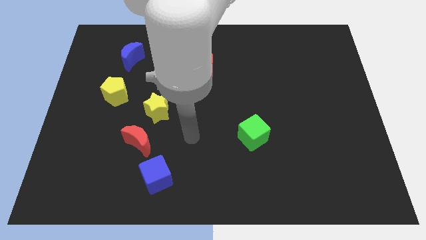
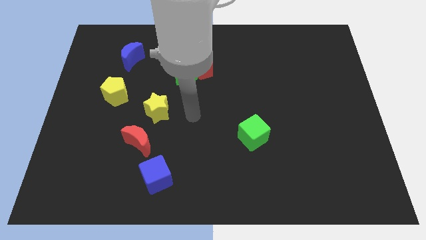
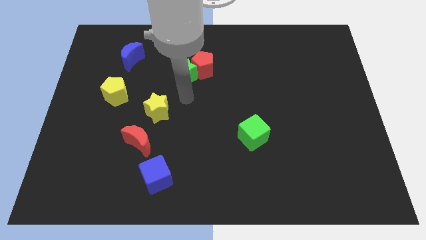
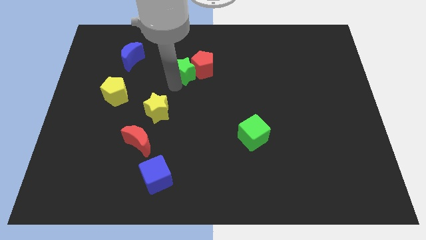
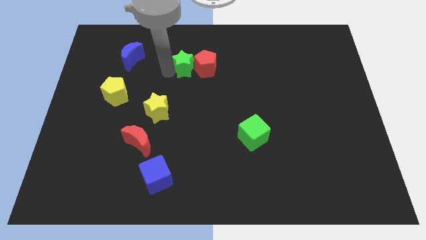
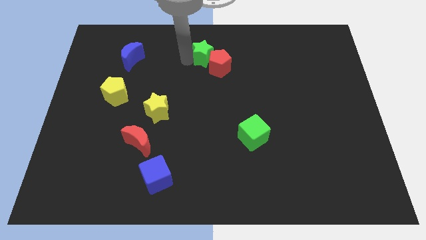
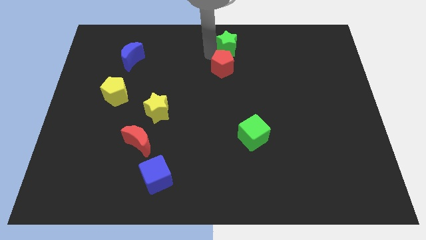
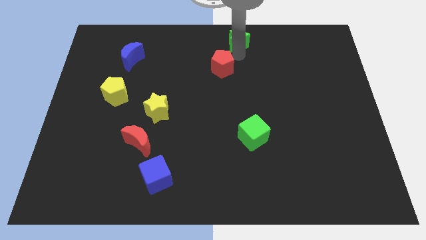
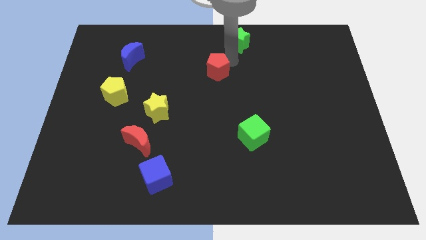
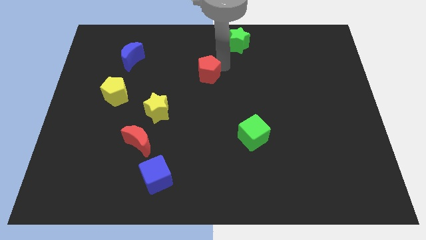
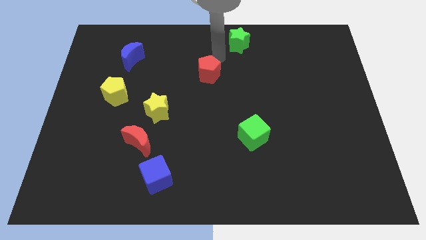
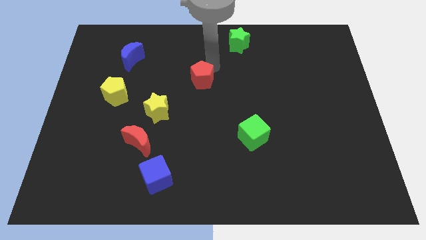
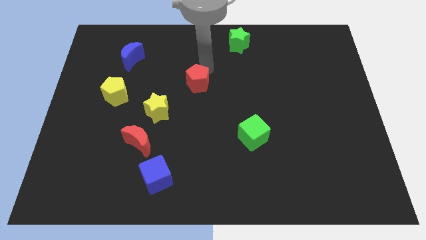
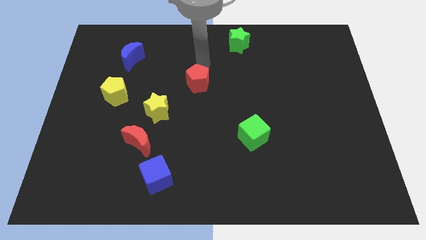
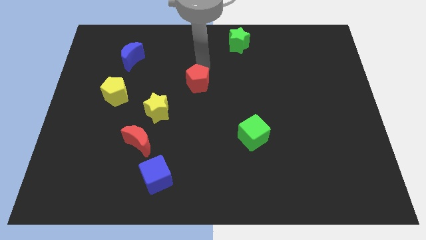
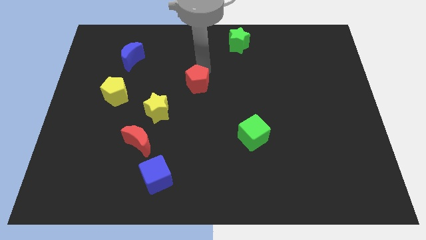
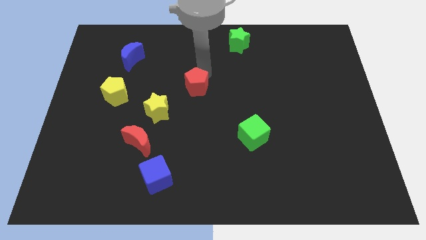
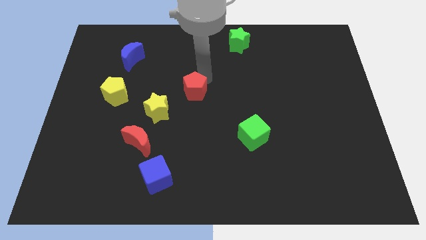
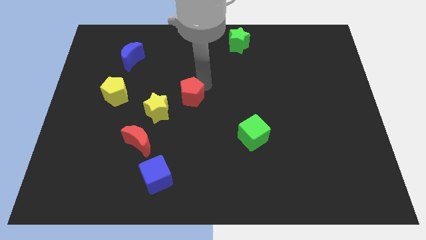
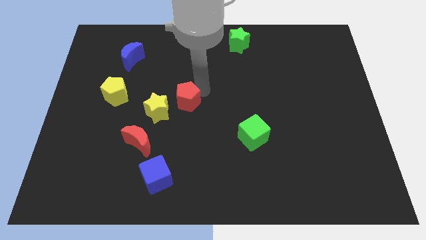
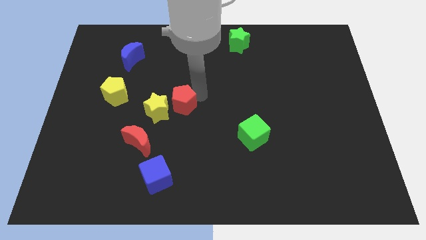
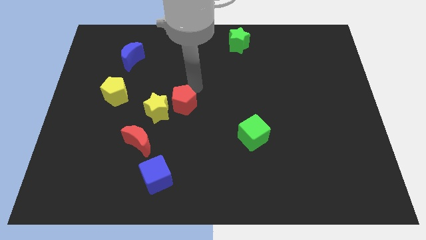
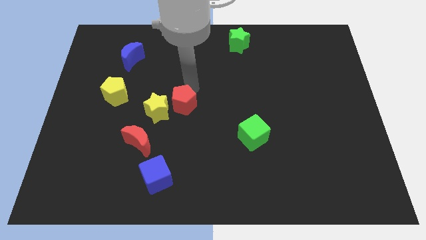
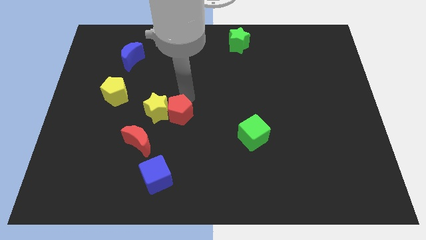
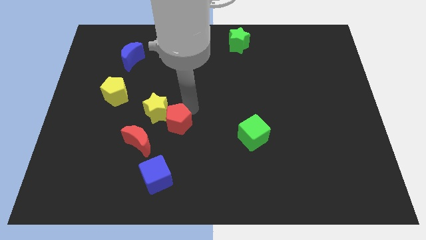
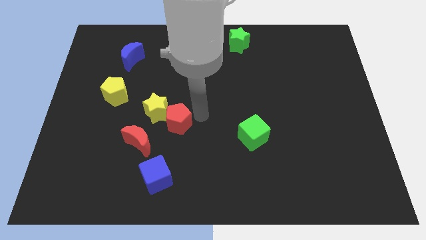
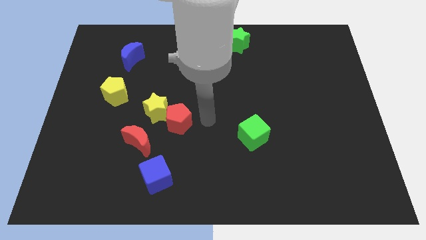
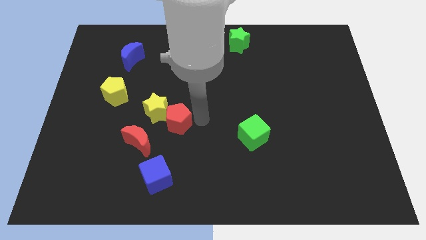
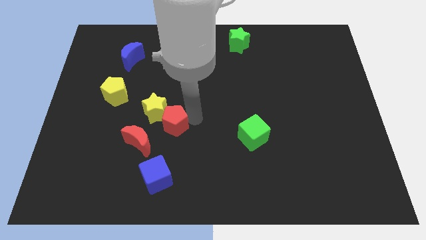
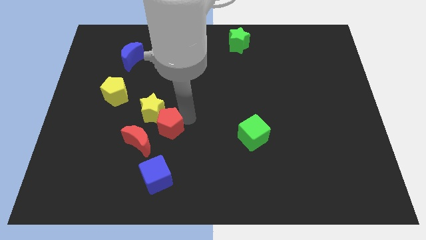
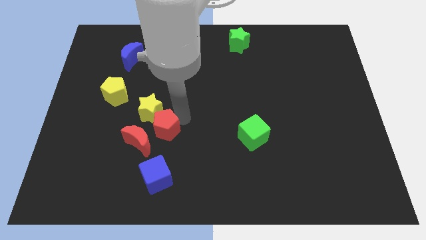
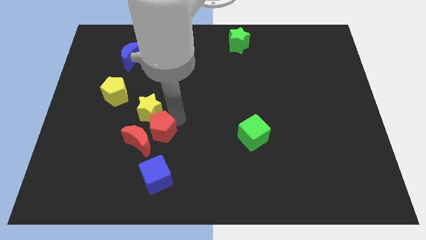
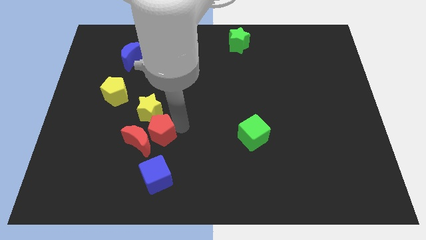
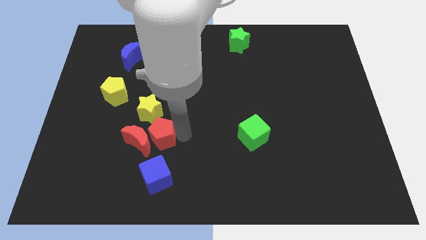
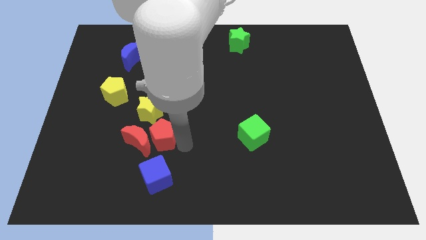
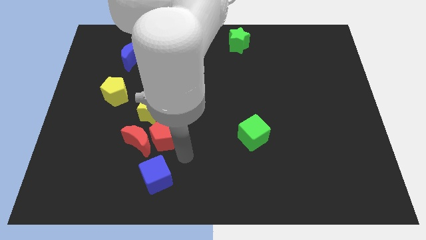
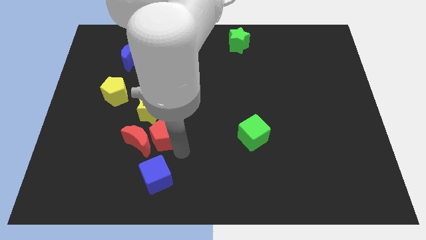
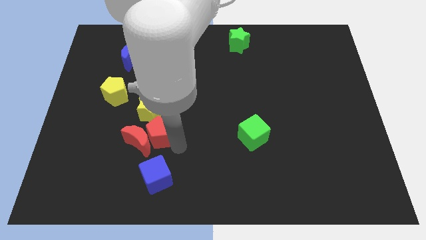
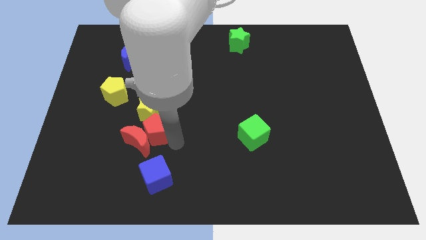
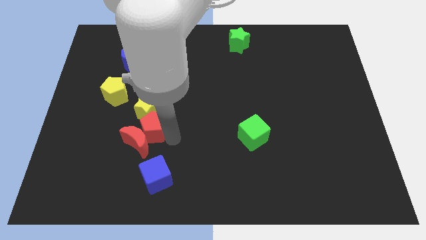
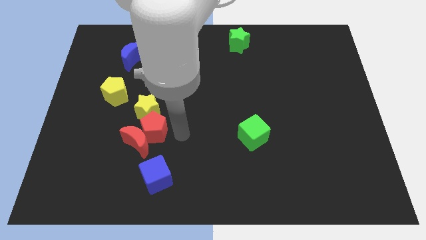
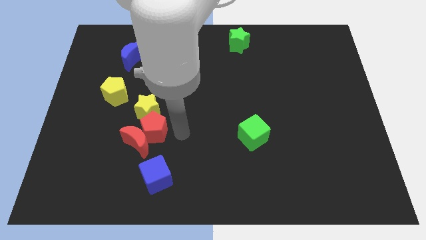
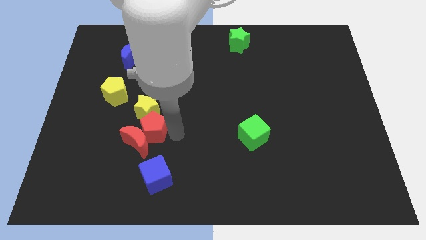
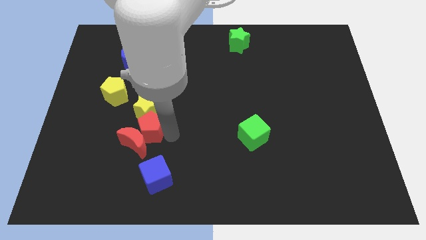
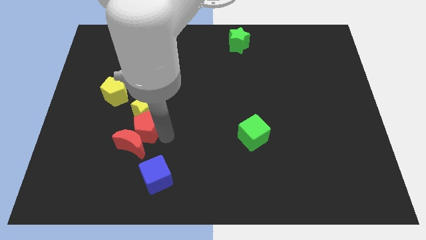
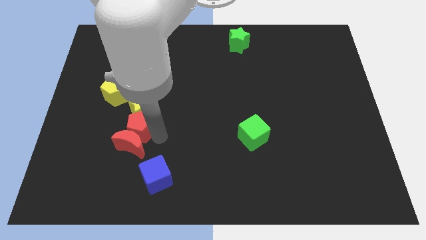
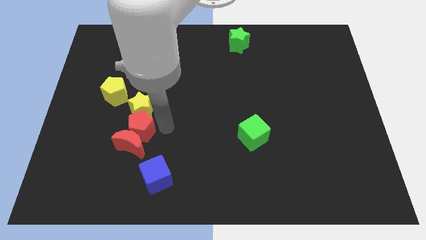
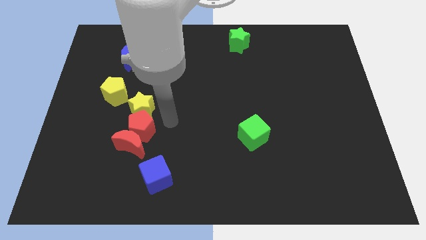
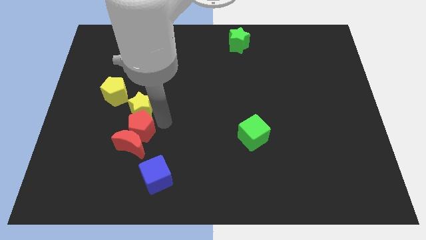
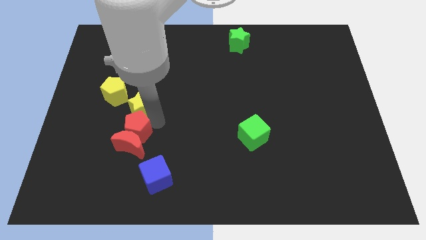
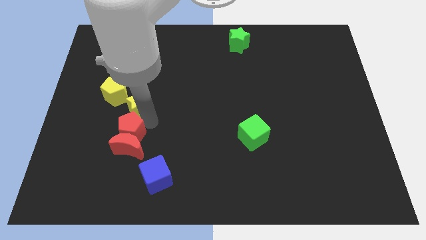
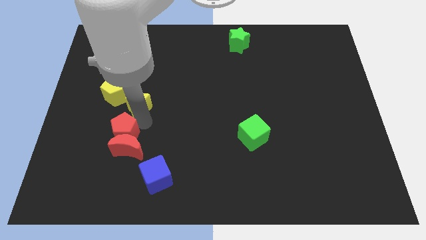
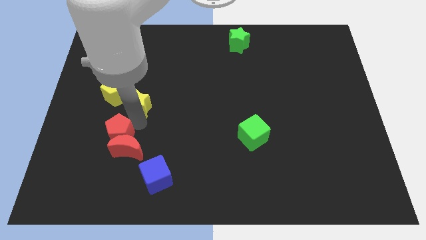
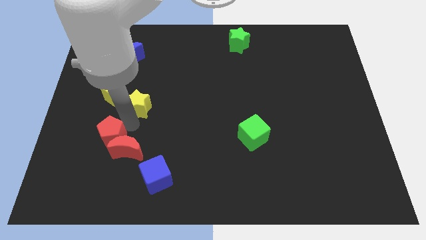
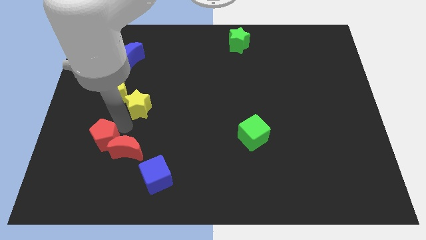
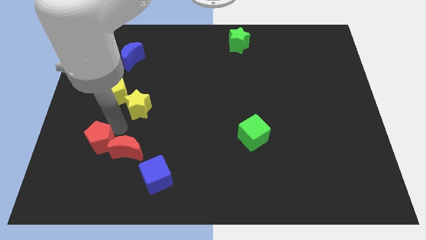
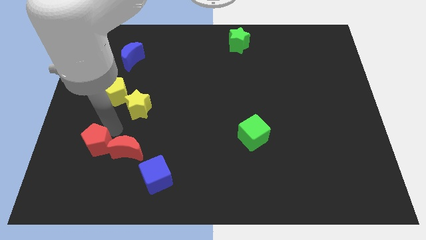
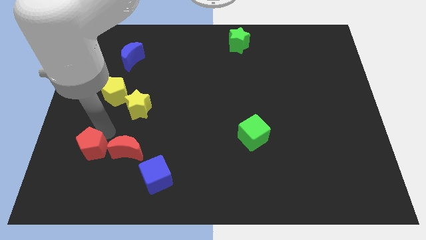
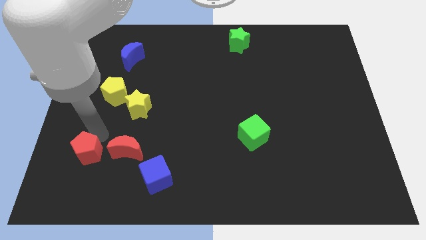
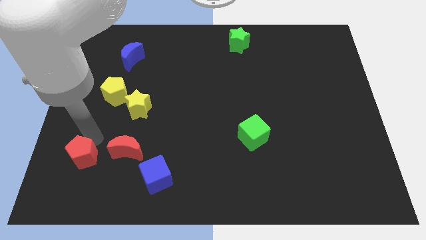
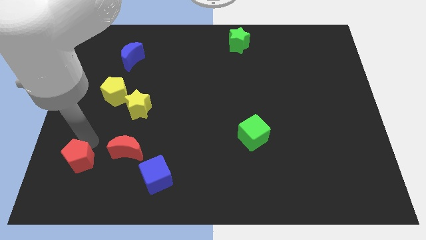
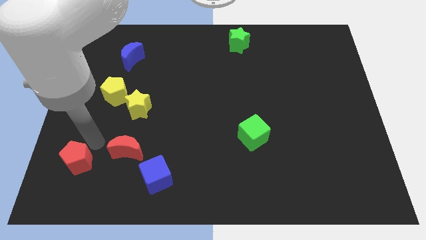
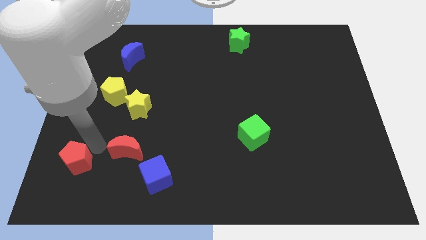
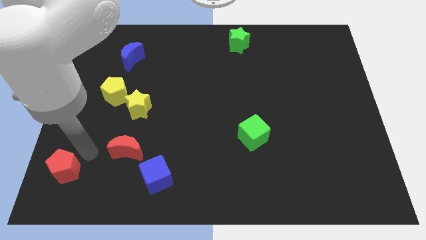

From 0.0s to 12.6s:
slide the red pentagon to the bottom left corner

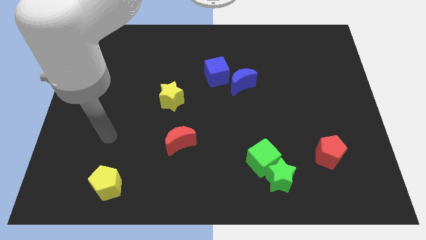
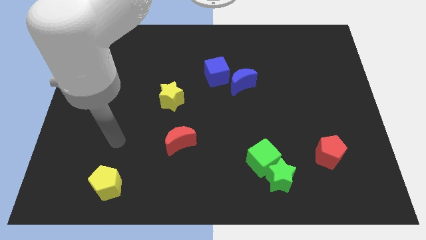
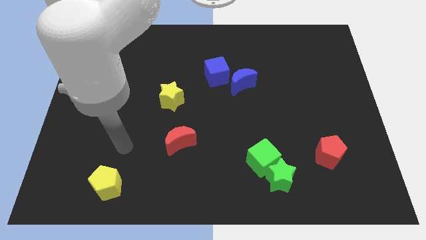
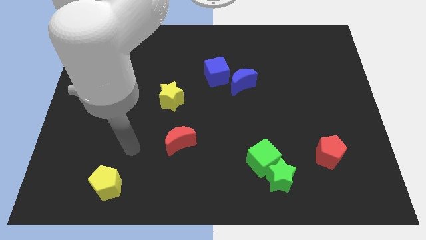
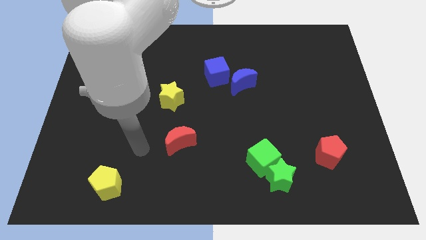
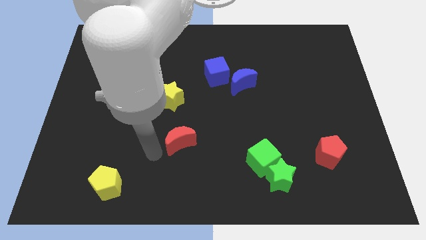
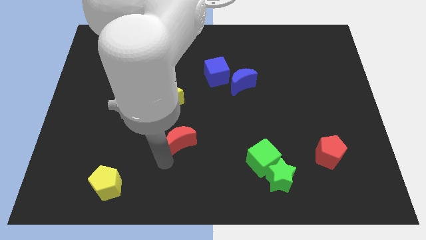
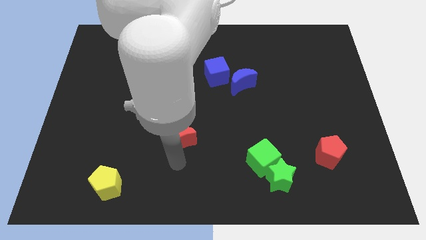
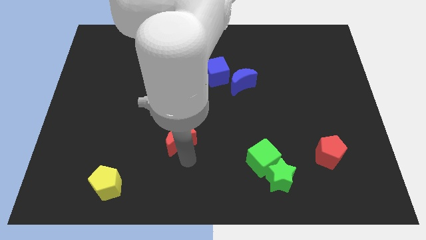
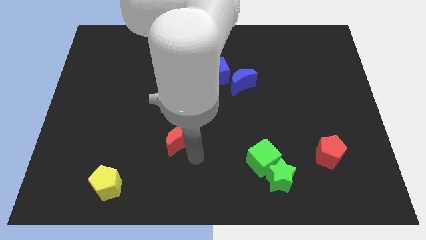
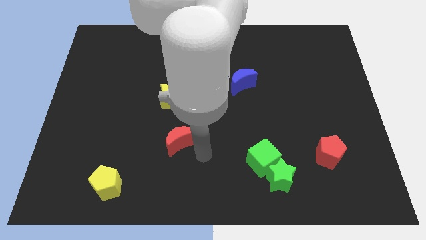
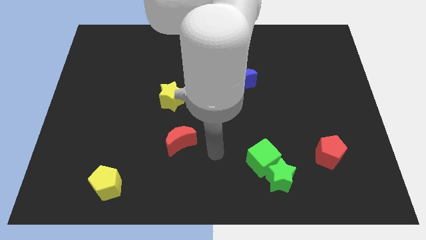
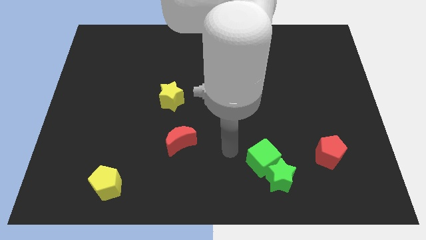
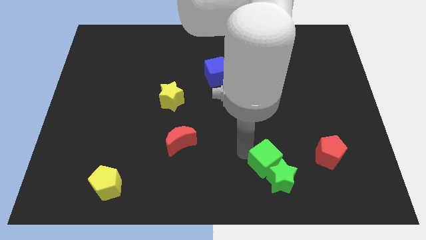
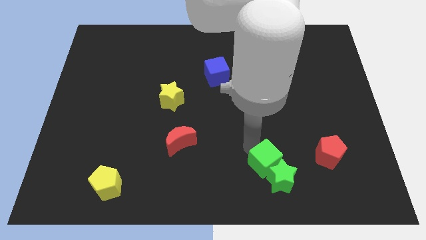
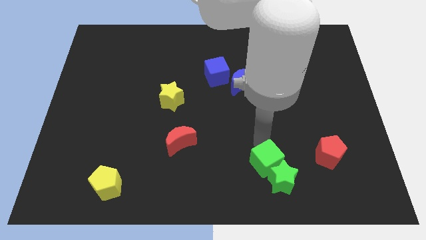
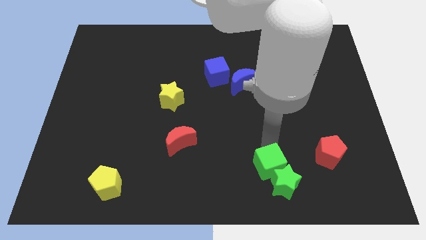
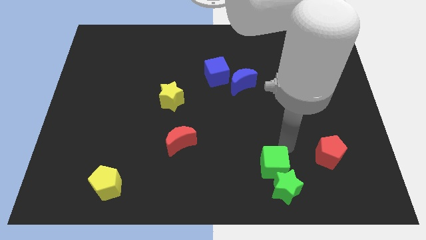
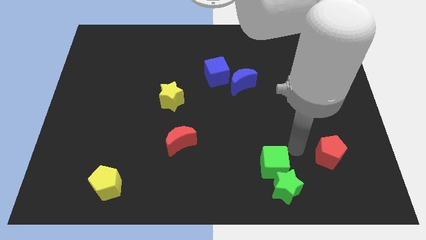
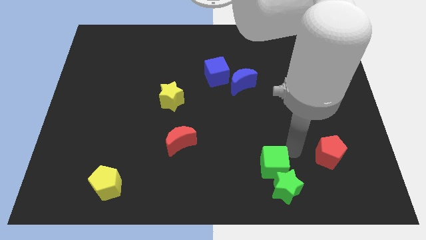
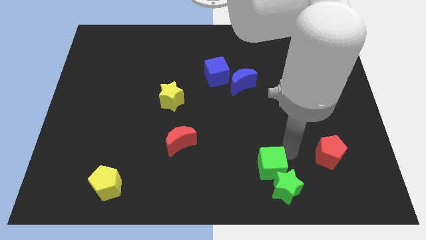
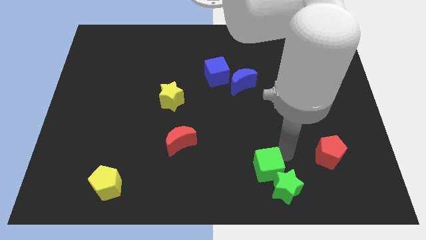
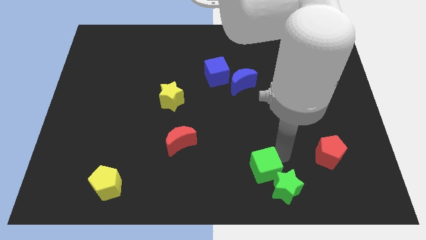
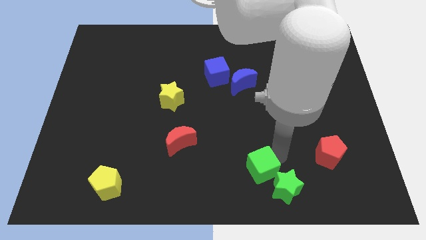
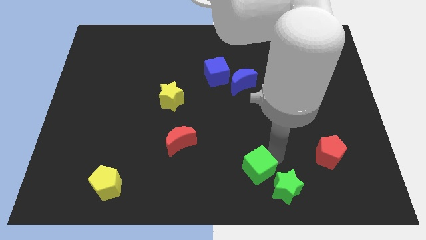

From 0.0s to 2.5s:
put the green cube to the bottom side
